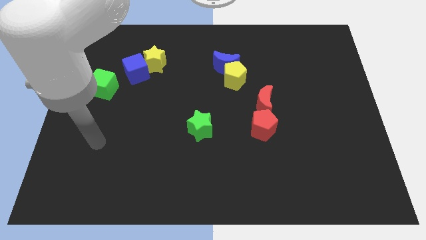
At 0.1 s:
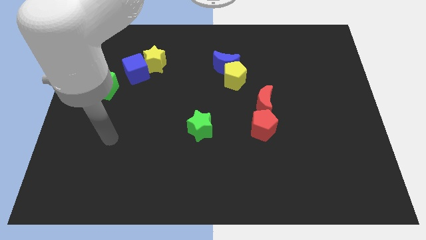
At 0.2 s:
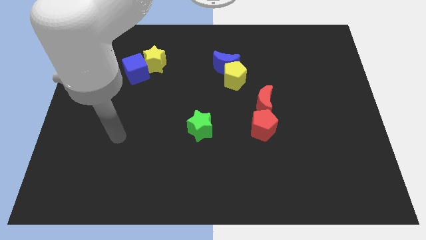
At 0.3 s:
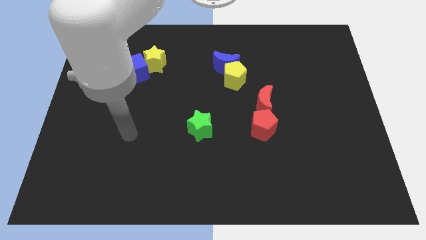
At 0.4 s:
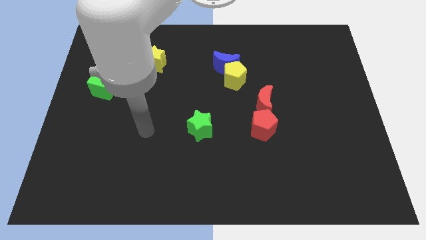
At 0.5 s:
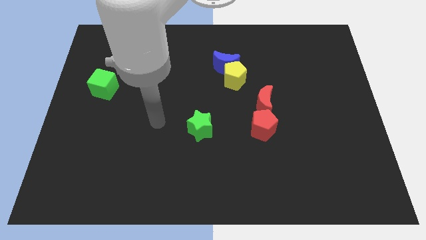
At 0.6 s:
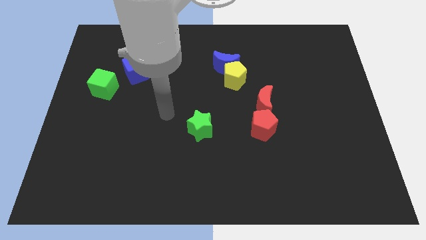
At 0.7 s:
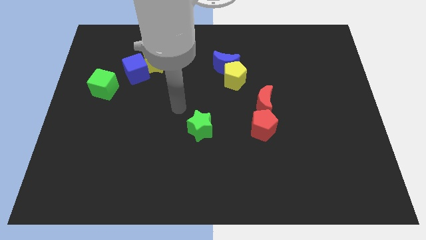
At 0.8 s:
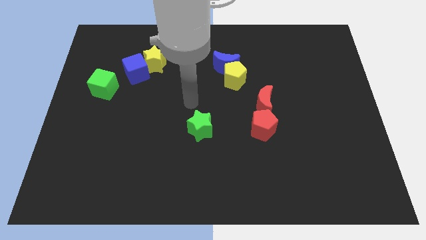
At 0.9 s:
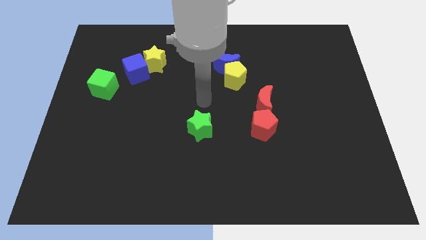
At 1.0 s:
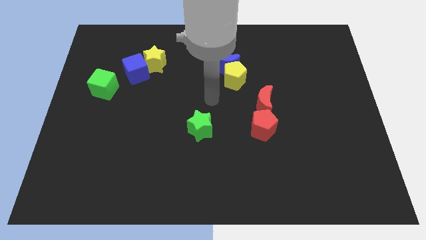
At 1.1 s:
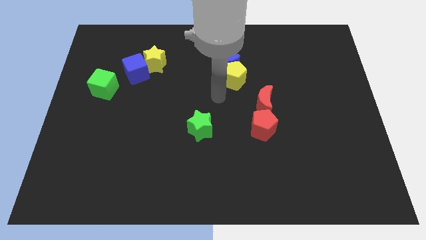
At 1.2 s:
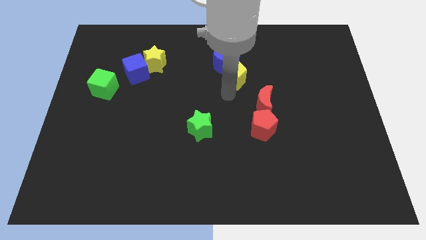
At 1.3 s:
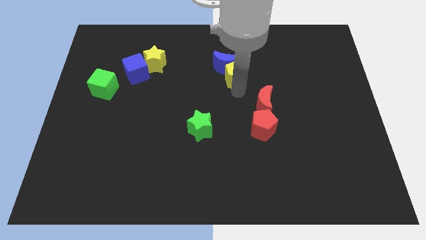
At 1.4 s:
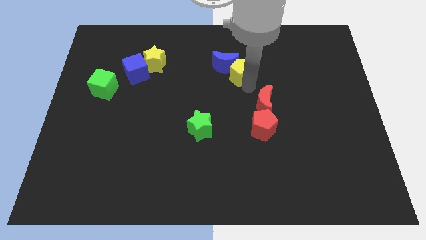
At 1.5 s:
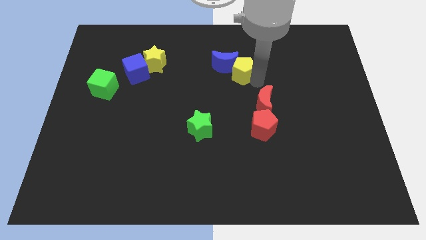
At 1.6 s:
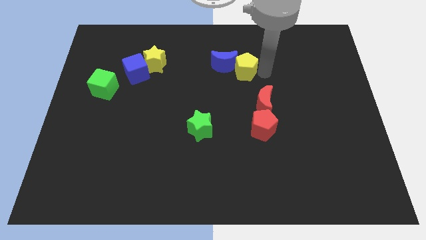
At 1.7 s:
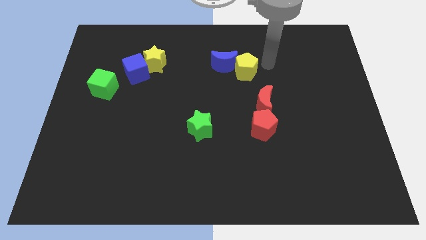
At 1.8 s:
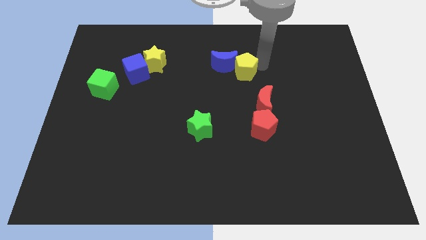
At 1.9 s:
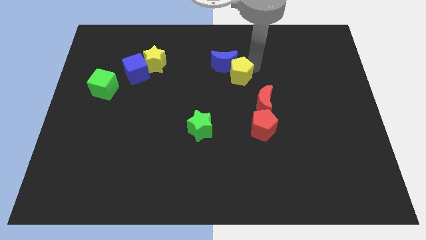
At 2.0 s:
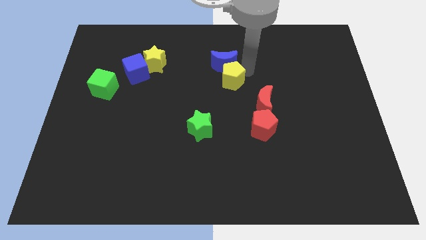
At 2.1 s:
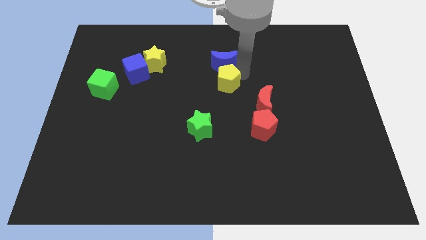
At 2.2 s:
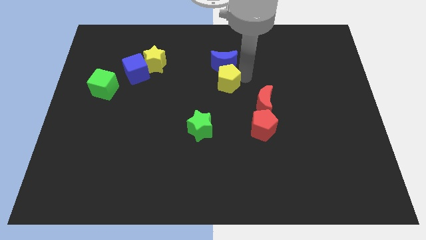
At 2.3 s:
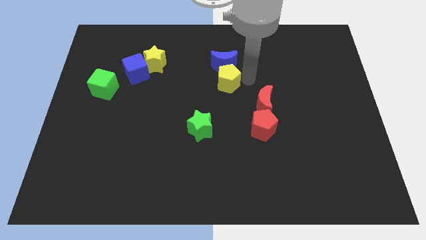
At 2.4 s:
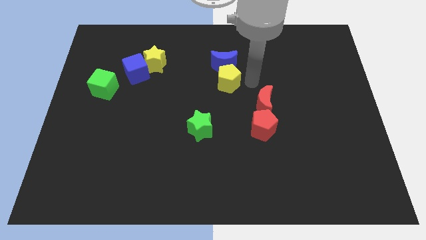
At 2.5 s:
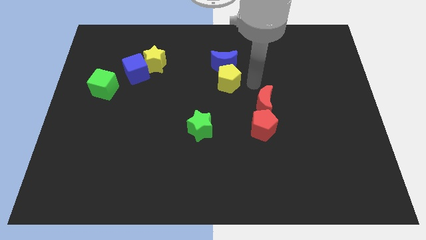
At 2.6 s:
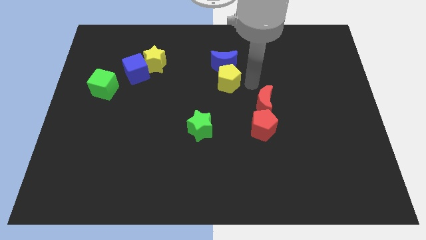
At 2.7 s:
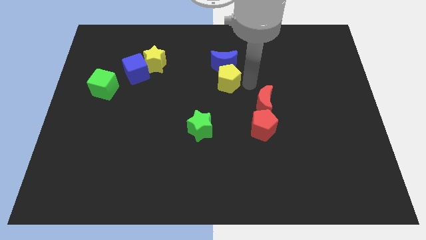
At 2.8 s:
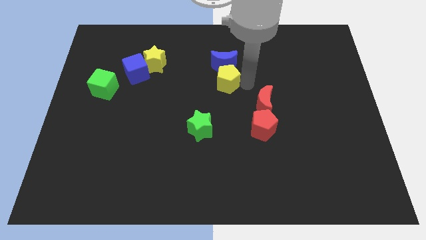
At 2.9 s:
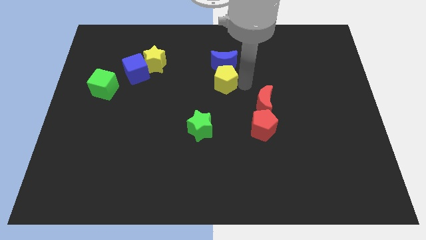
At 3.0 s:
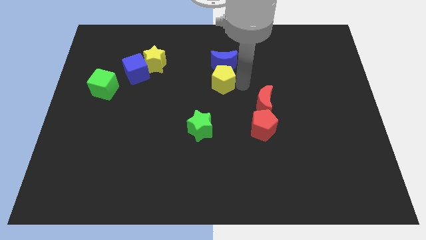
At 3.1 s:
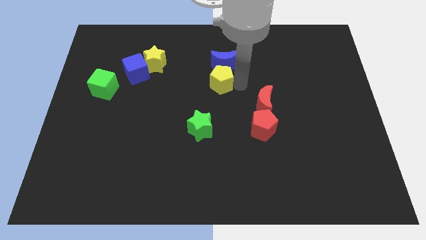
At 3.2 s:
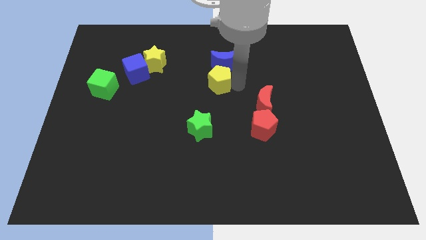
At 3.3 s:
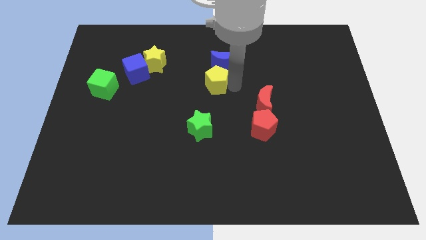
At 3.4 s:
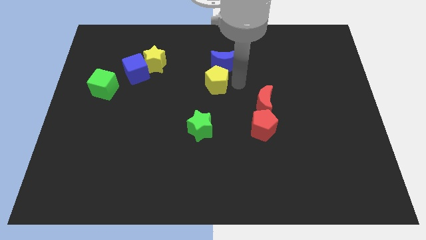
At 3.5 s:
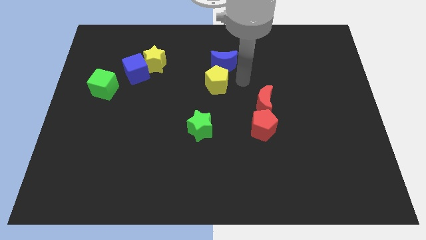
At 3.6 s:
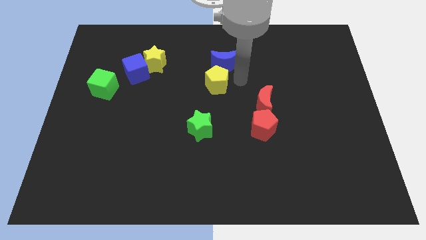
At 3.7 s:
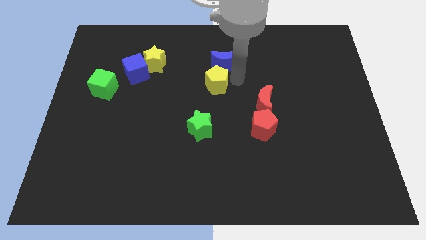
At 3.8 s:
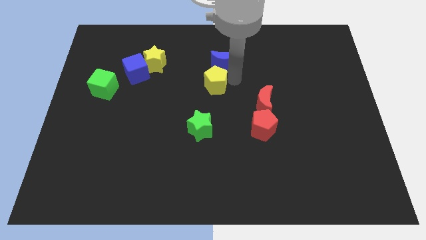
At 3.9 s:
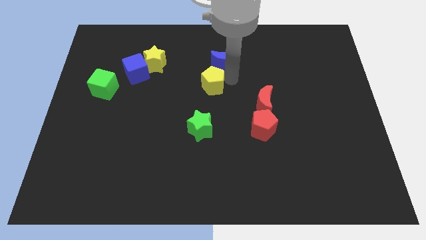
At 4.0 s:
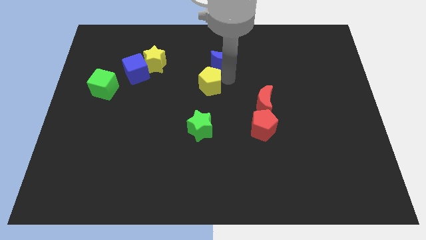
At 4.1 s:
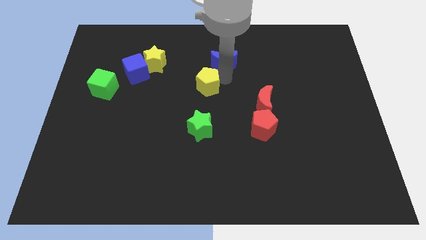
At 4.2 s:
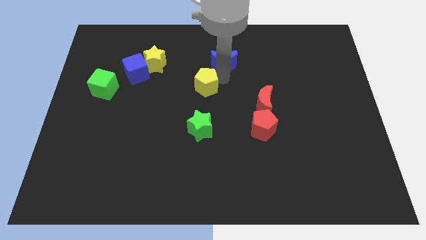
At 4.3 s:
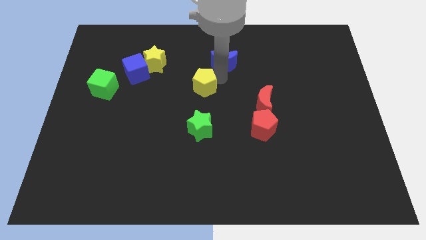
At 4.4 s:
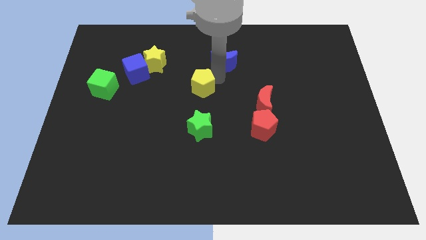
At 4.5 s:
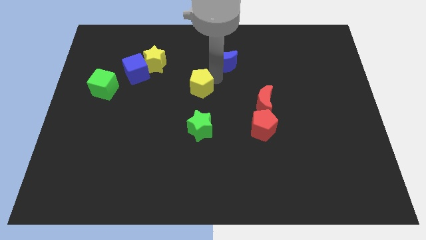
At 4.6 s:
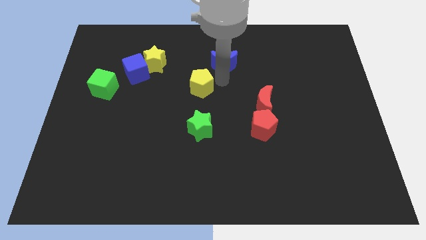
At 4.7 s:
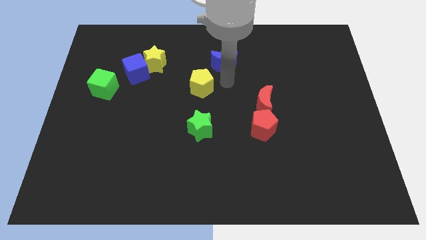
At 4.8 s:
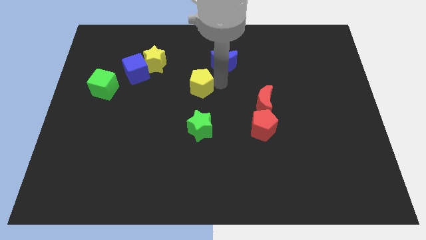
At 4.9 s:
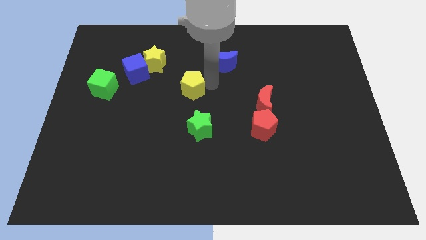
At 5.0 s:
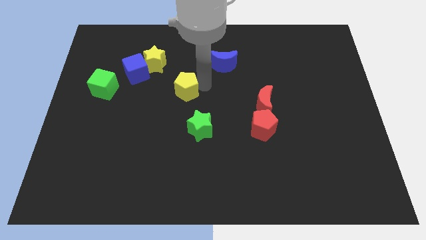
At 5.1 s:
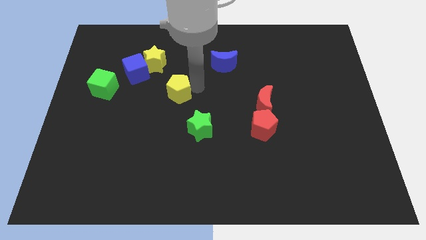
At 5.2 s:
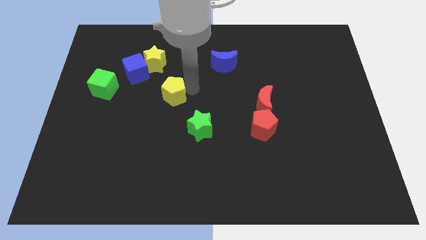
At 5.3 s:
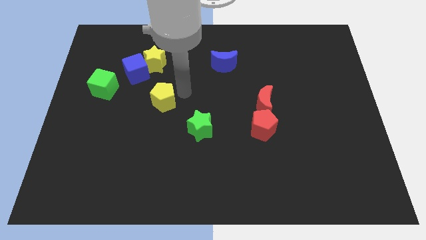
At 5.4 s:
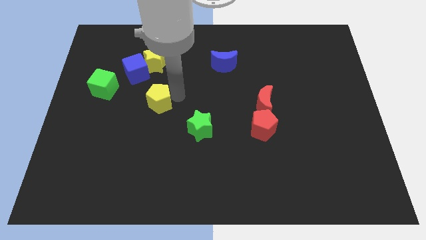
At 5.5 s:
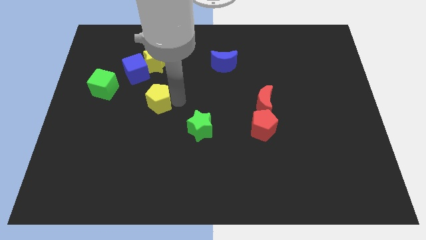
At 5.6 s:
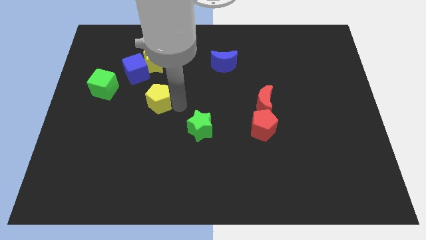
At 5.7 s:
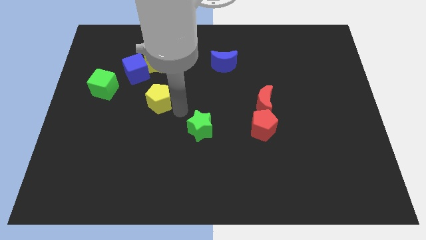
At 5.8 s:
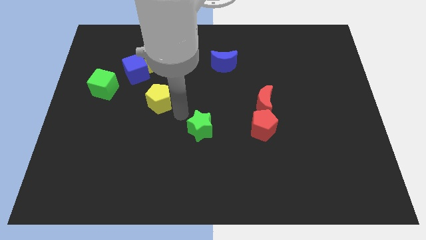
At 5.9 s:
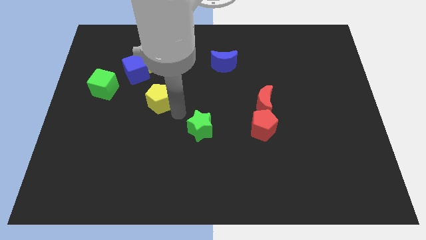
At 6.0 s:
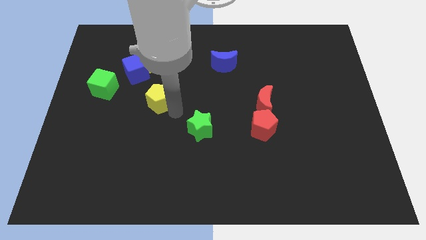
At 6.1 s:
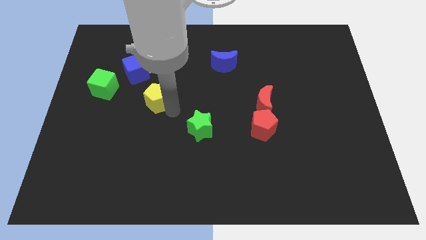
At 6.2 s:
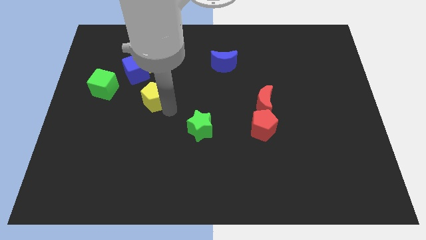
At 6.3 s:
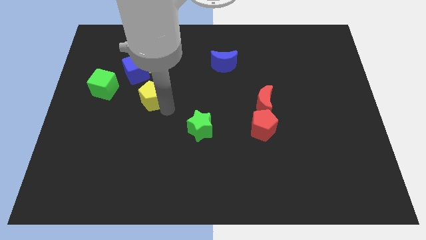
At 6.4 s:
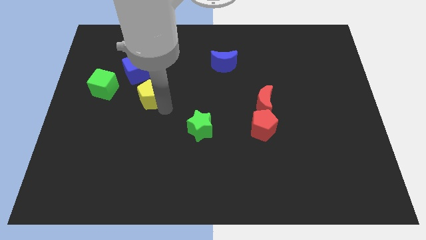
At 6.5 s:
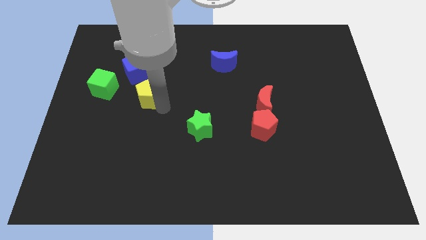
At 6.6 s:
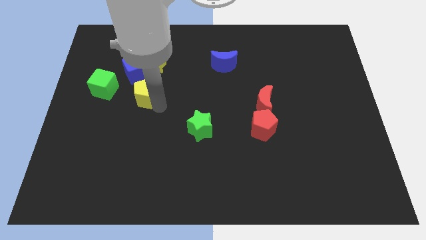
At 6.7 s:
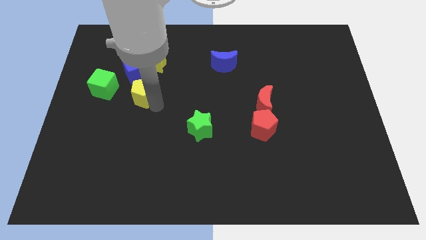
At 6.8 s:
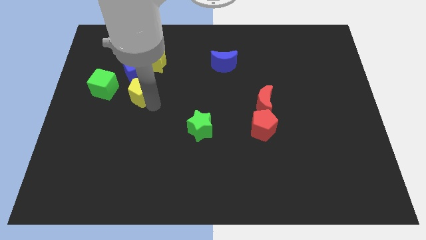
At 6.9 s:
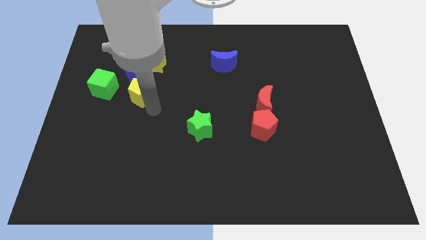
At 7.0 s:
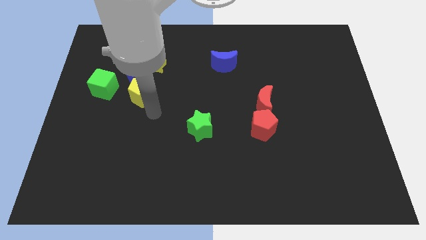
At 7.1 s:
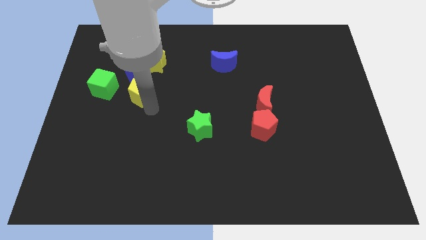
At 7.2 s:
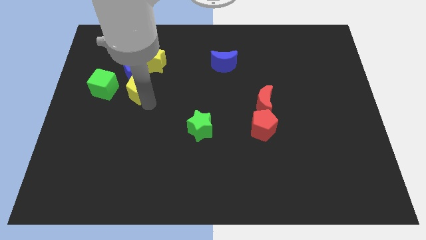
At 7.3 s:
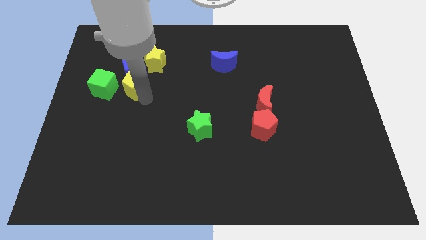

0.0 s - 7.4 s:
push the yellow pentagon to the bottom left side of the yellow star

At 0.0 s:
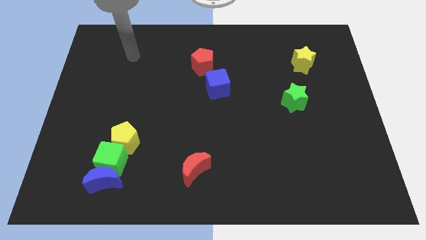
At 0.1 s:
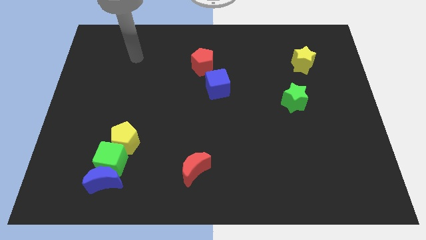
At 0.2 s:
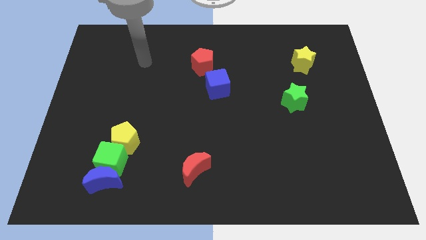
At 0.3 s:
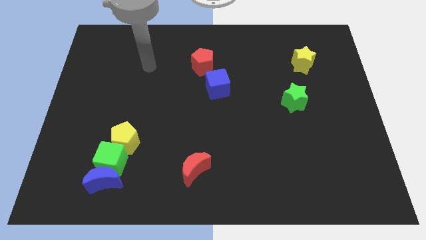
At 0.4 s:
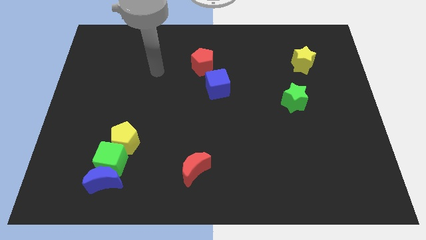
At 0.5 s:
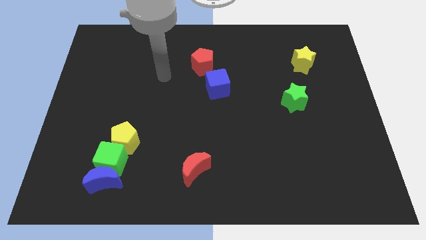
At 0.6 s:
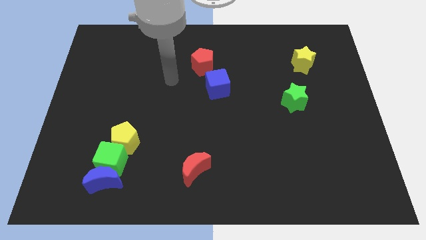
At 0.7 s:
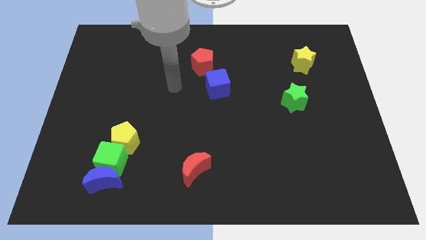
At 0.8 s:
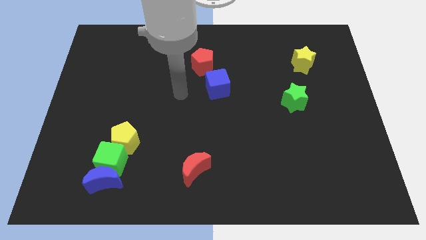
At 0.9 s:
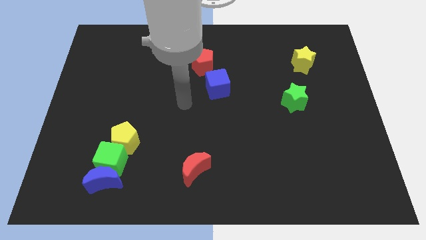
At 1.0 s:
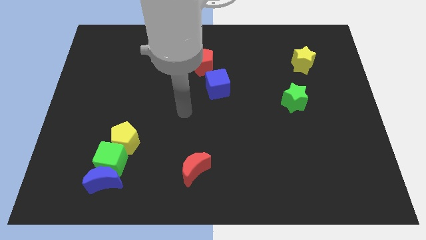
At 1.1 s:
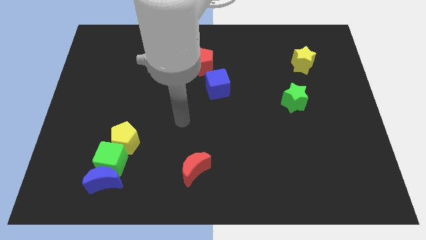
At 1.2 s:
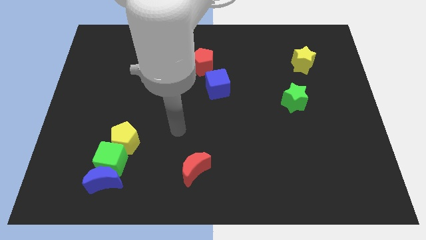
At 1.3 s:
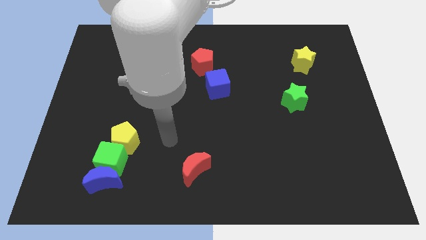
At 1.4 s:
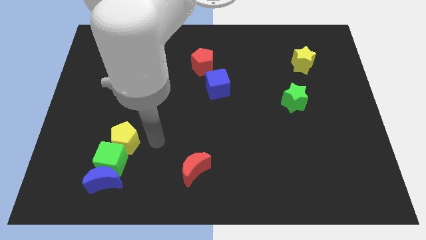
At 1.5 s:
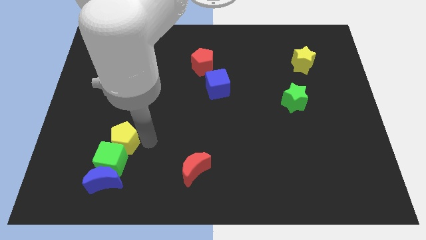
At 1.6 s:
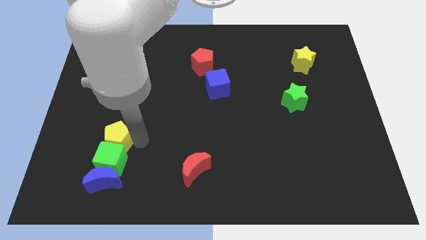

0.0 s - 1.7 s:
move the yellow pentagon to the top left side of the green cube
